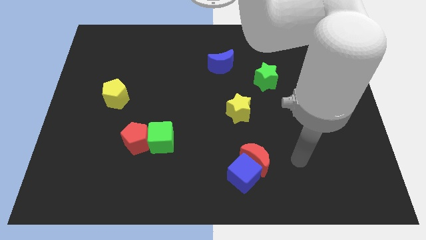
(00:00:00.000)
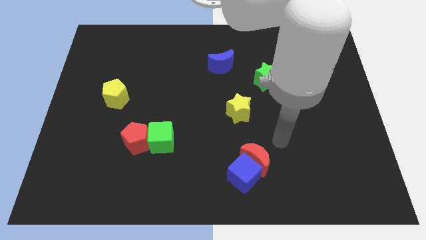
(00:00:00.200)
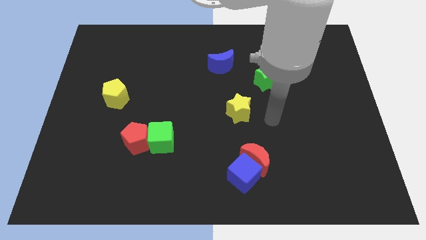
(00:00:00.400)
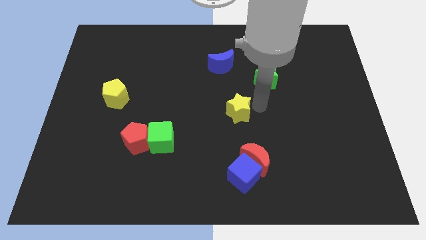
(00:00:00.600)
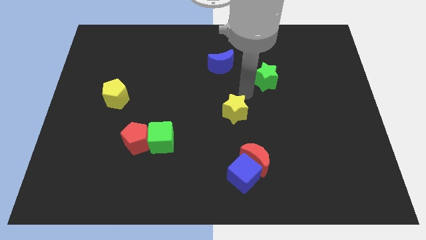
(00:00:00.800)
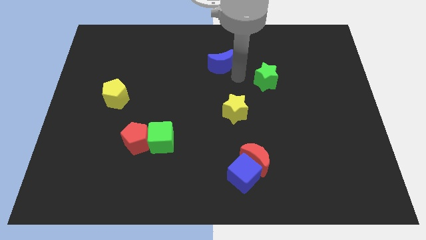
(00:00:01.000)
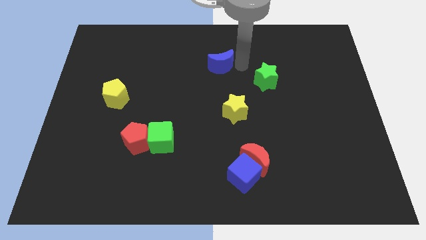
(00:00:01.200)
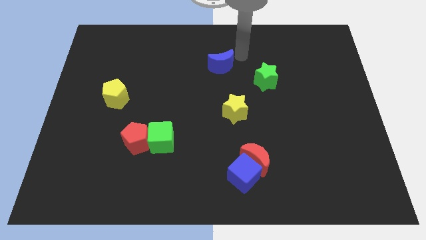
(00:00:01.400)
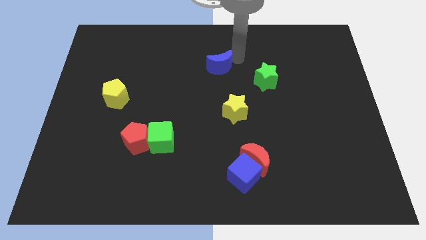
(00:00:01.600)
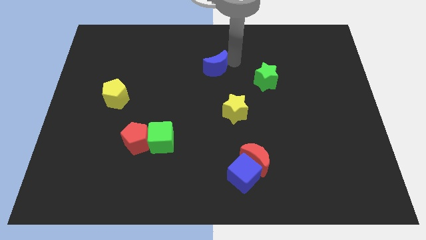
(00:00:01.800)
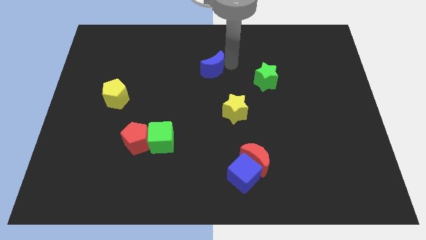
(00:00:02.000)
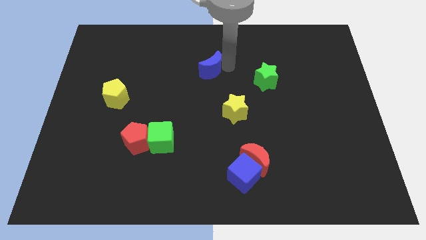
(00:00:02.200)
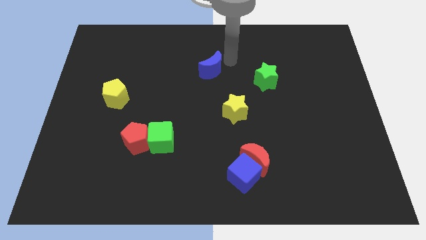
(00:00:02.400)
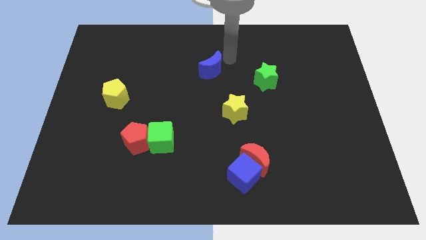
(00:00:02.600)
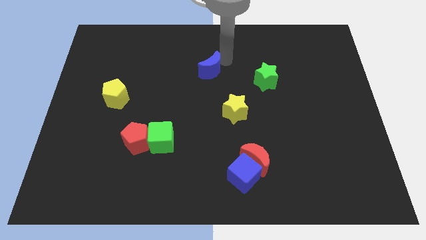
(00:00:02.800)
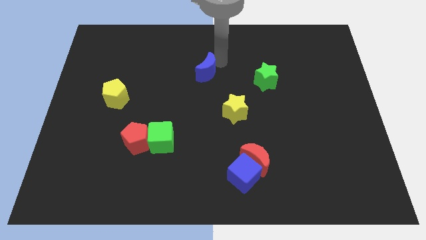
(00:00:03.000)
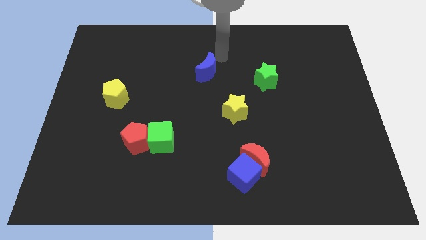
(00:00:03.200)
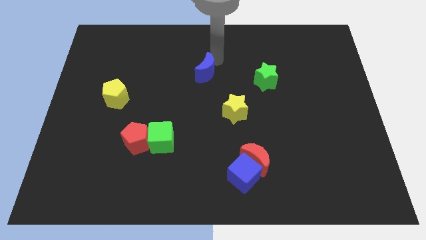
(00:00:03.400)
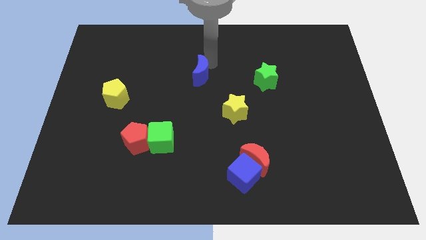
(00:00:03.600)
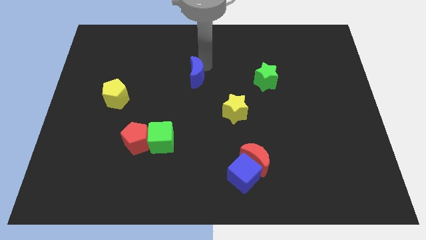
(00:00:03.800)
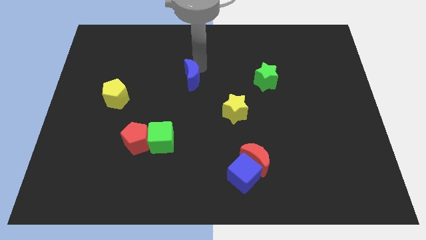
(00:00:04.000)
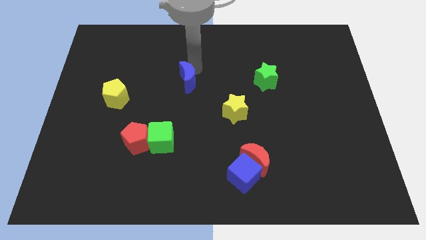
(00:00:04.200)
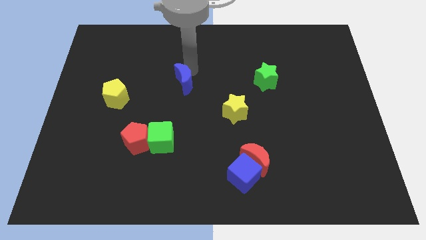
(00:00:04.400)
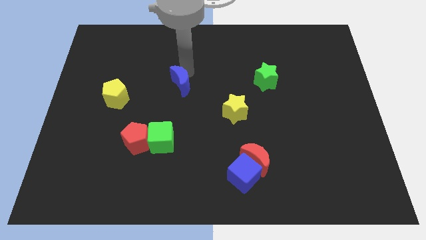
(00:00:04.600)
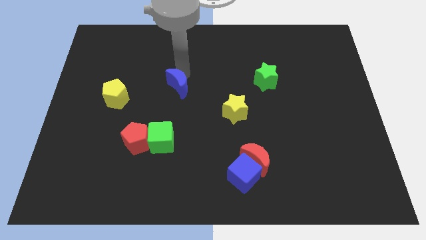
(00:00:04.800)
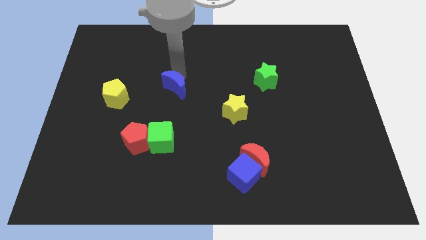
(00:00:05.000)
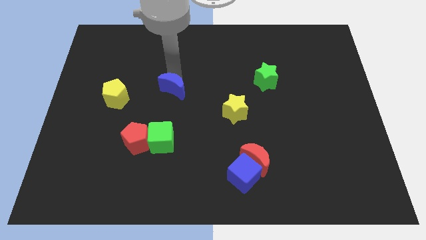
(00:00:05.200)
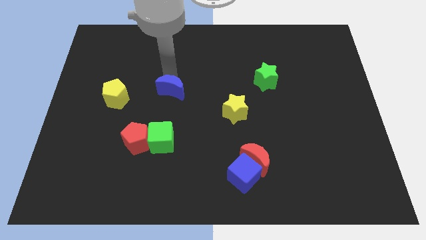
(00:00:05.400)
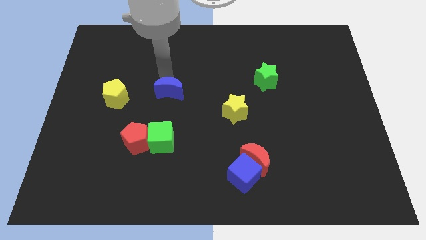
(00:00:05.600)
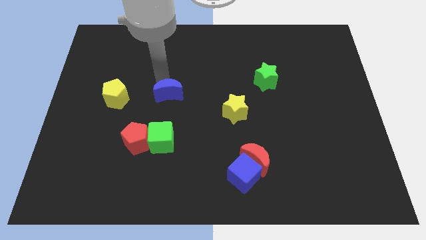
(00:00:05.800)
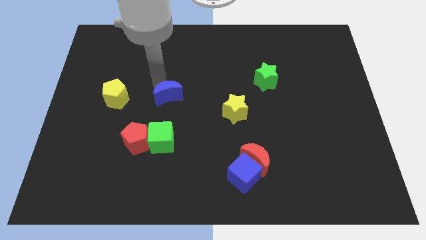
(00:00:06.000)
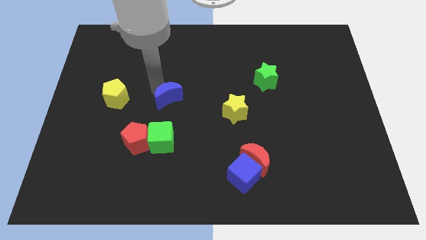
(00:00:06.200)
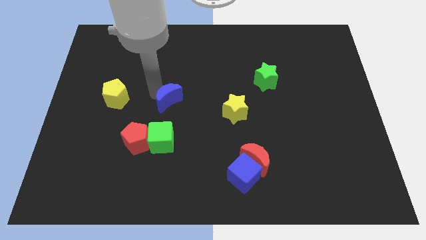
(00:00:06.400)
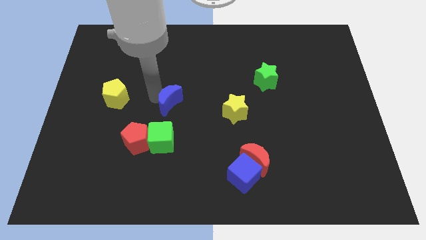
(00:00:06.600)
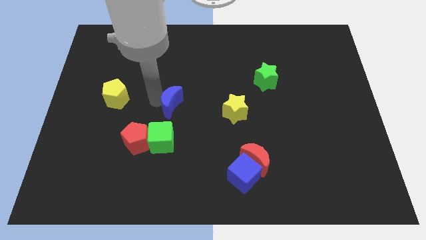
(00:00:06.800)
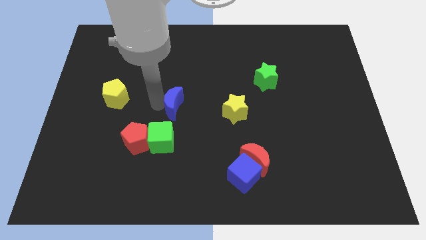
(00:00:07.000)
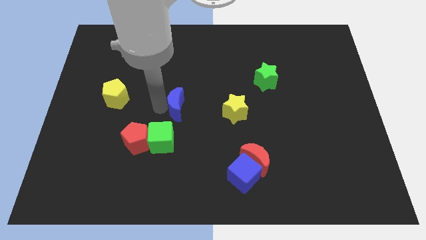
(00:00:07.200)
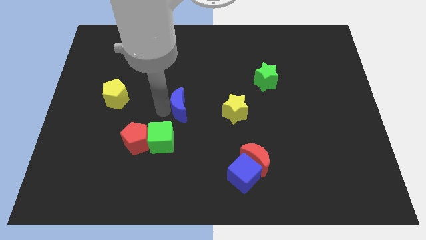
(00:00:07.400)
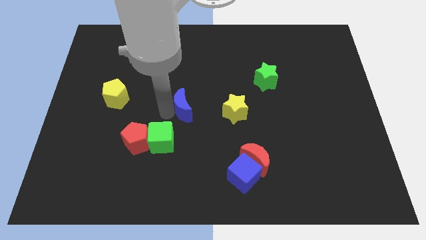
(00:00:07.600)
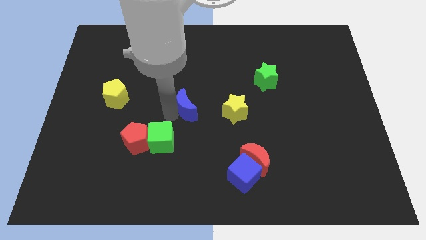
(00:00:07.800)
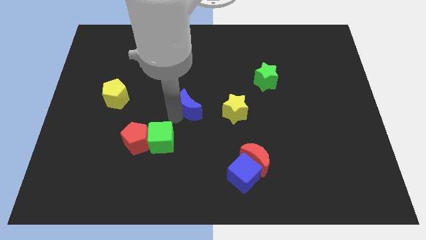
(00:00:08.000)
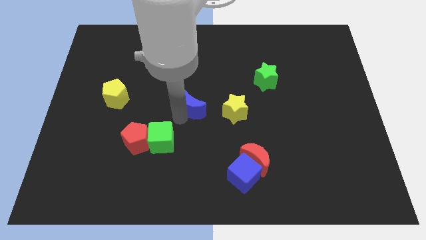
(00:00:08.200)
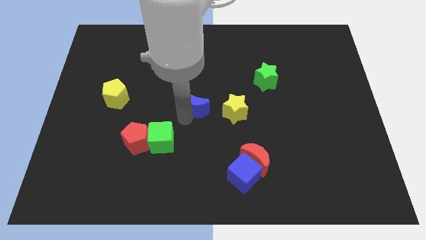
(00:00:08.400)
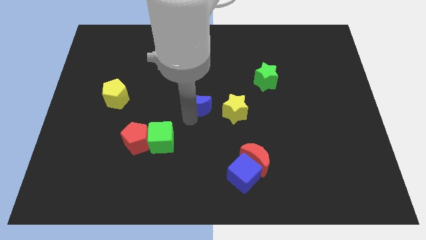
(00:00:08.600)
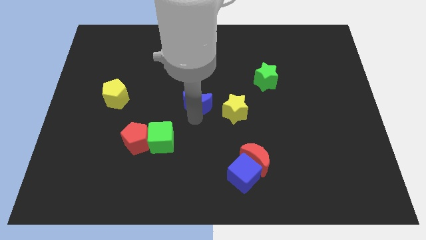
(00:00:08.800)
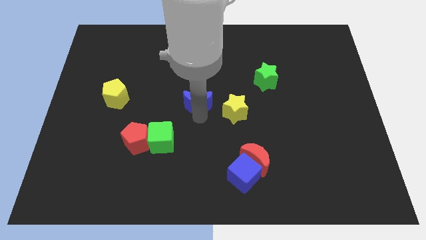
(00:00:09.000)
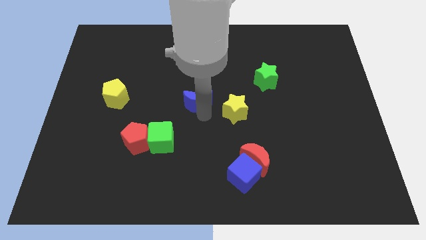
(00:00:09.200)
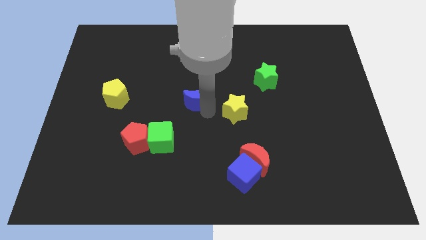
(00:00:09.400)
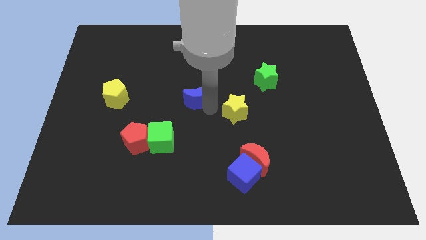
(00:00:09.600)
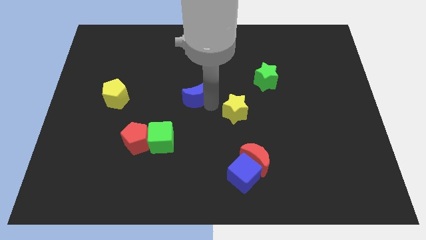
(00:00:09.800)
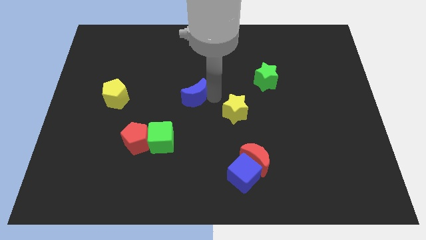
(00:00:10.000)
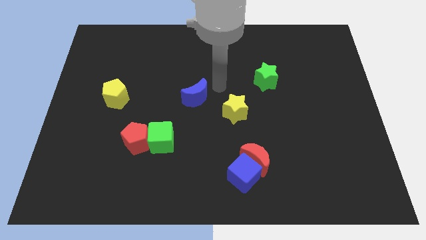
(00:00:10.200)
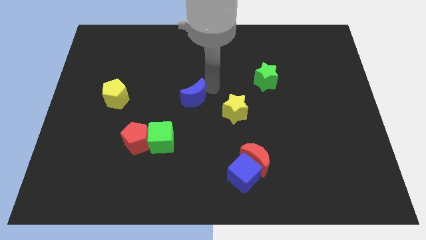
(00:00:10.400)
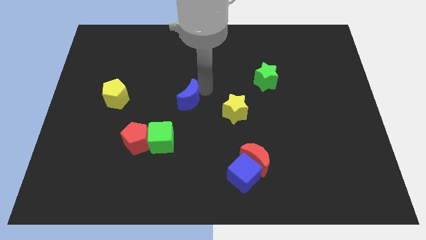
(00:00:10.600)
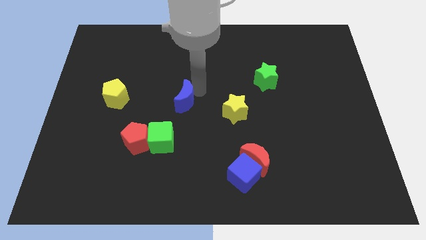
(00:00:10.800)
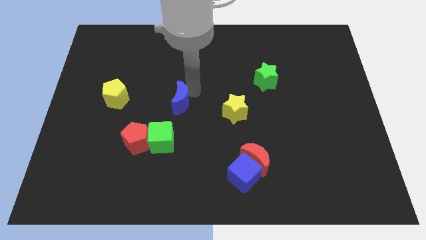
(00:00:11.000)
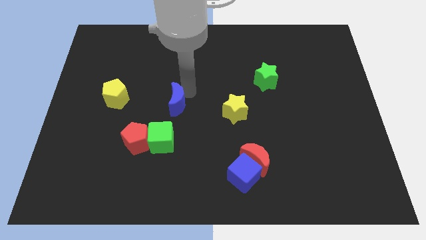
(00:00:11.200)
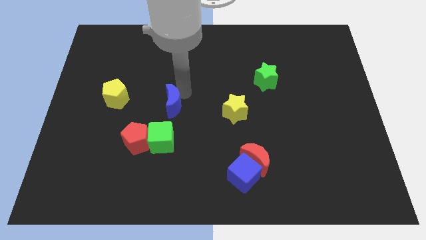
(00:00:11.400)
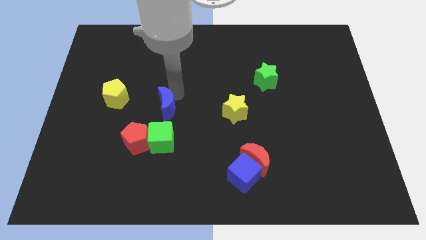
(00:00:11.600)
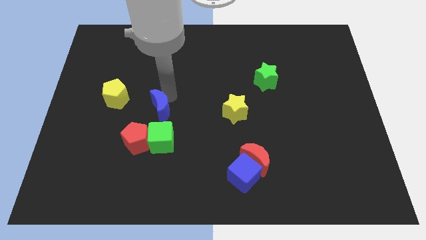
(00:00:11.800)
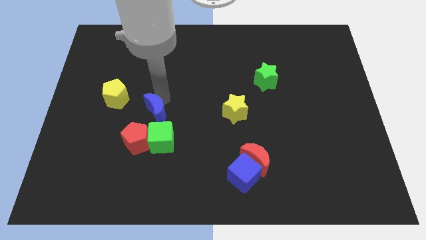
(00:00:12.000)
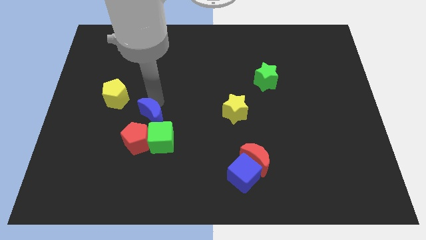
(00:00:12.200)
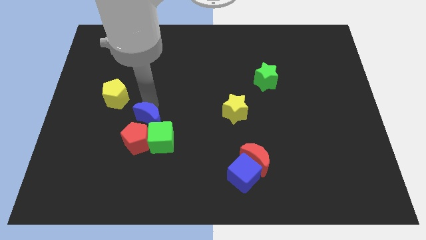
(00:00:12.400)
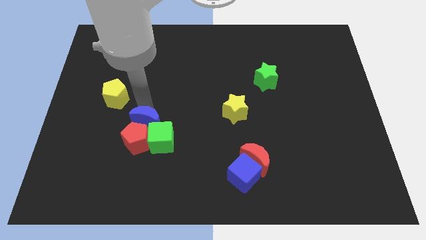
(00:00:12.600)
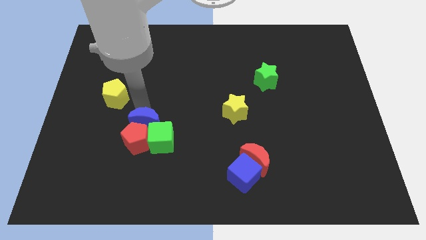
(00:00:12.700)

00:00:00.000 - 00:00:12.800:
slide the blue moon next to the green cube

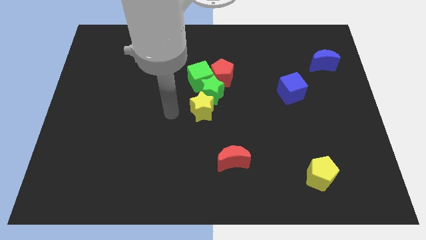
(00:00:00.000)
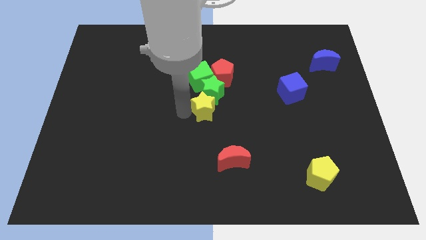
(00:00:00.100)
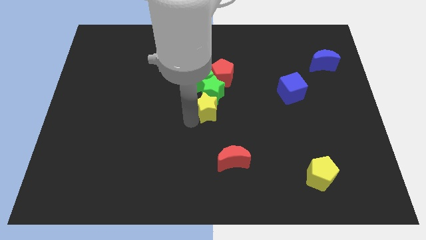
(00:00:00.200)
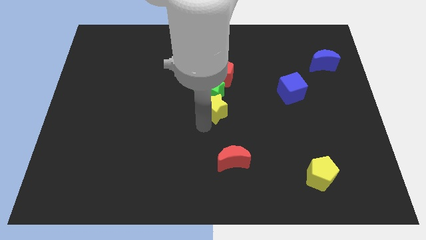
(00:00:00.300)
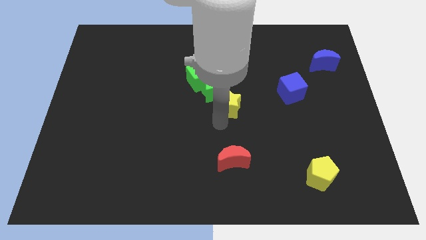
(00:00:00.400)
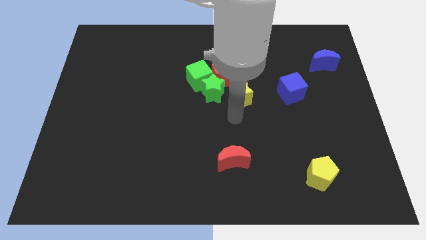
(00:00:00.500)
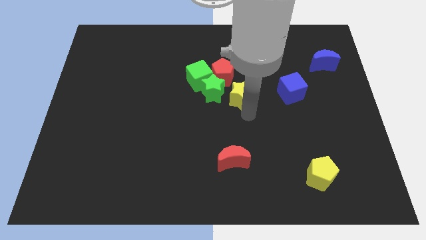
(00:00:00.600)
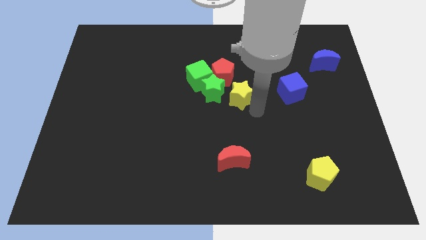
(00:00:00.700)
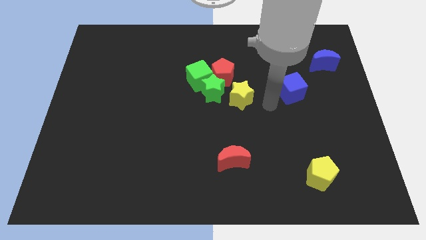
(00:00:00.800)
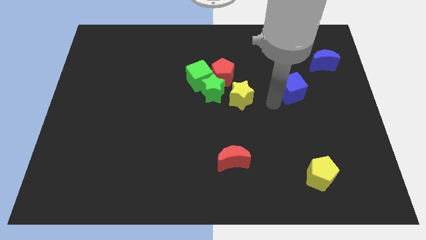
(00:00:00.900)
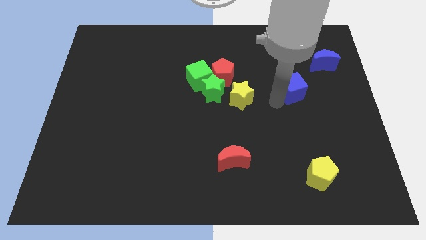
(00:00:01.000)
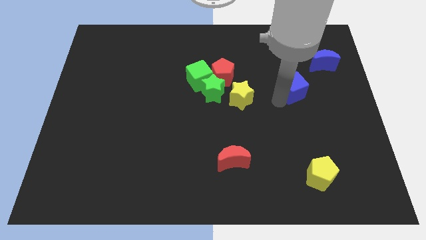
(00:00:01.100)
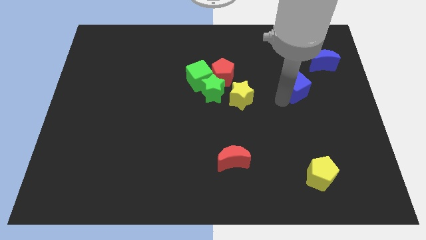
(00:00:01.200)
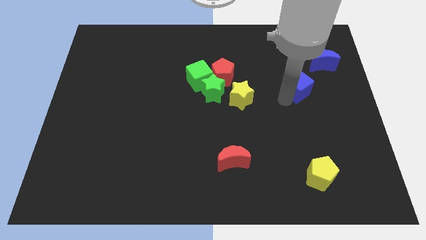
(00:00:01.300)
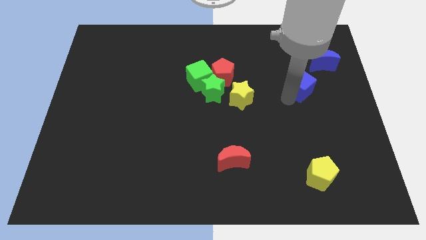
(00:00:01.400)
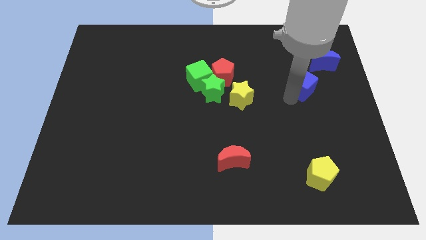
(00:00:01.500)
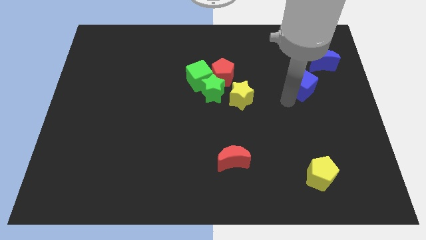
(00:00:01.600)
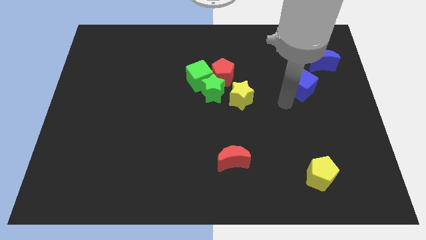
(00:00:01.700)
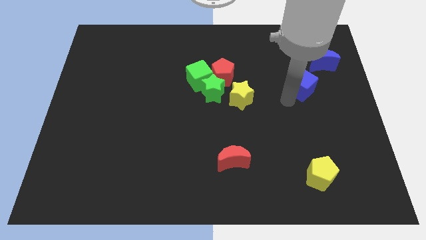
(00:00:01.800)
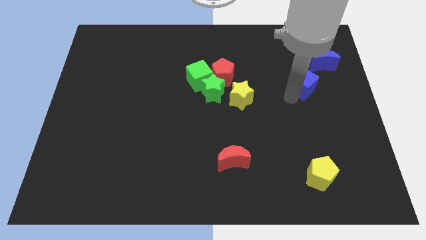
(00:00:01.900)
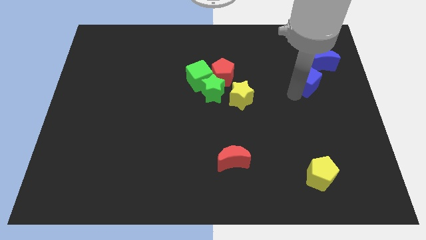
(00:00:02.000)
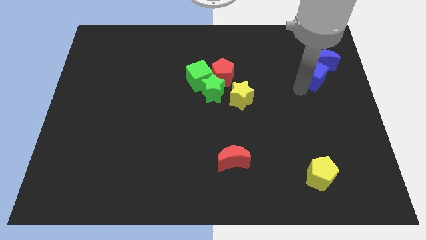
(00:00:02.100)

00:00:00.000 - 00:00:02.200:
put the blue cube close to the blue moon
